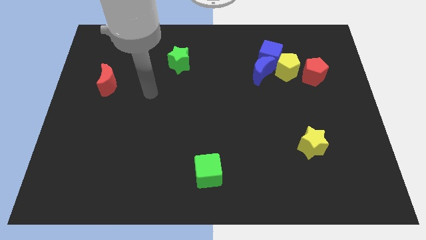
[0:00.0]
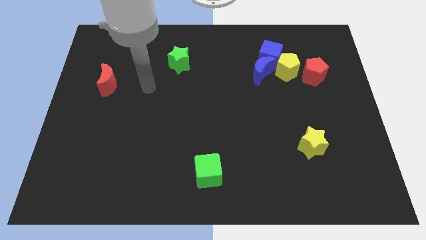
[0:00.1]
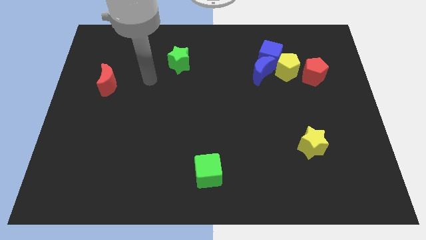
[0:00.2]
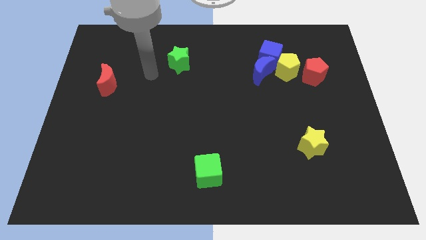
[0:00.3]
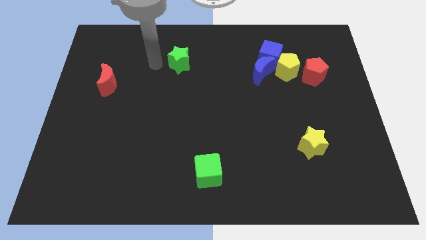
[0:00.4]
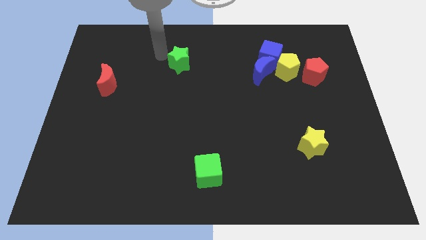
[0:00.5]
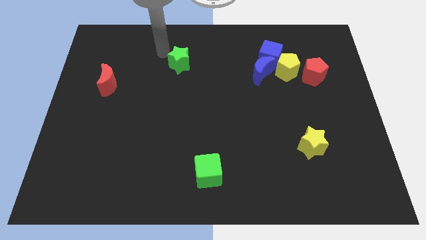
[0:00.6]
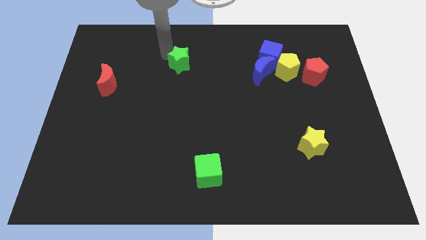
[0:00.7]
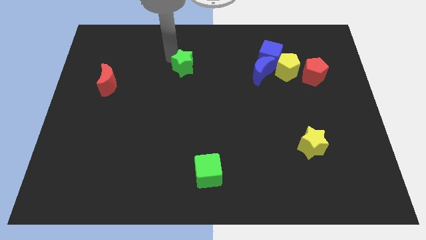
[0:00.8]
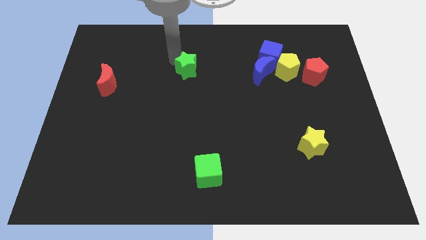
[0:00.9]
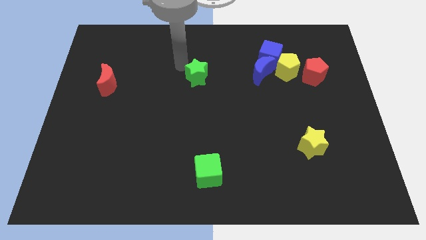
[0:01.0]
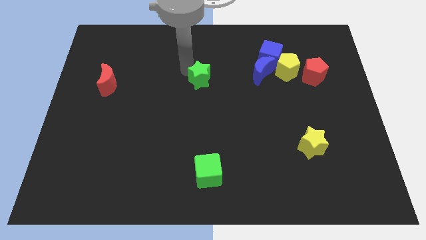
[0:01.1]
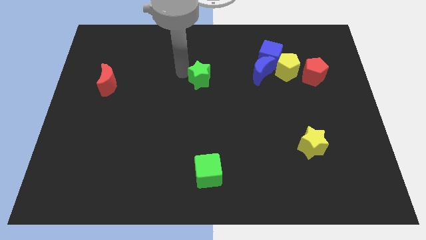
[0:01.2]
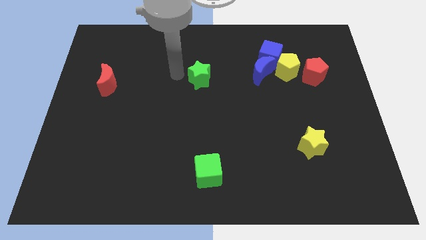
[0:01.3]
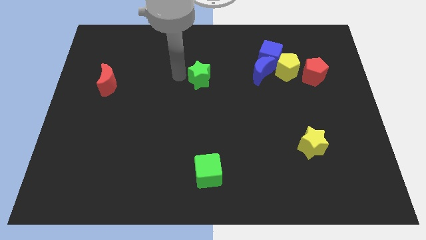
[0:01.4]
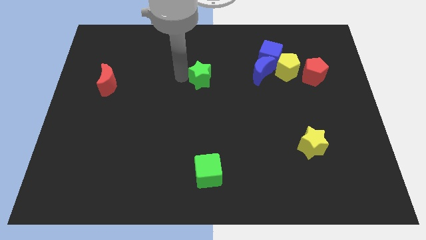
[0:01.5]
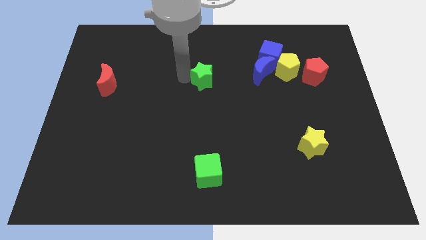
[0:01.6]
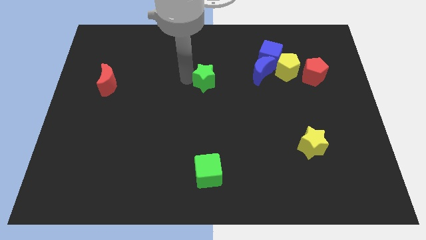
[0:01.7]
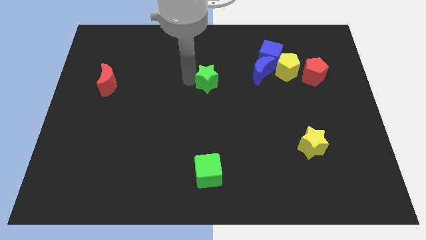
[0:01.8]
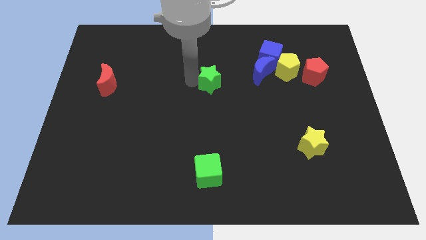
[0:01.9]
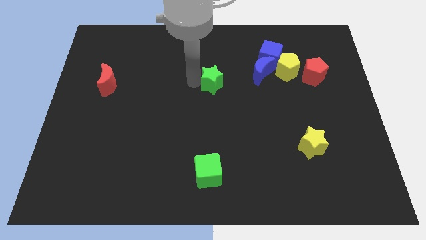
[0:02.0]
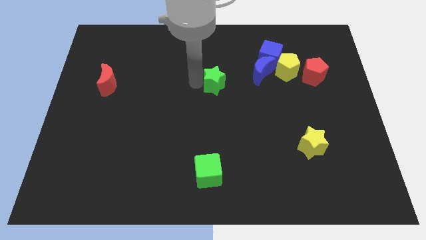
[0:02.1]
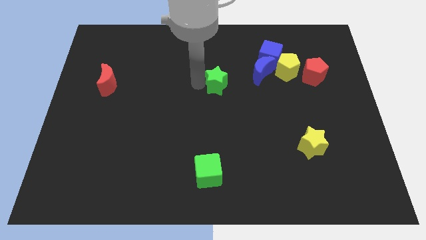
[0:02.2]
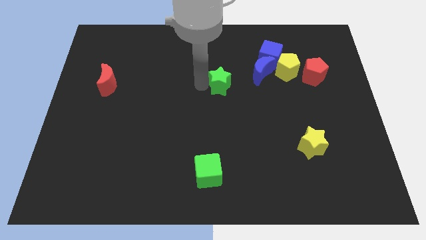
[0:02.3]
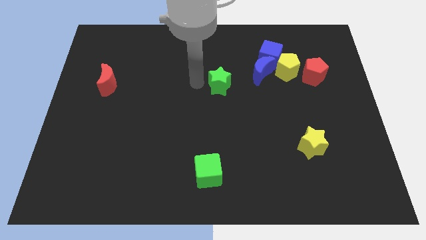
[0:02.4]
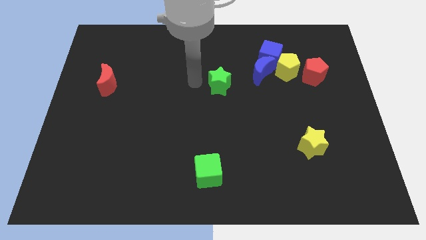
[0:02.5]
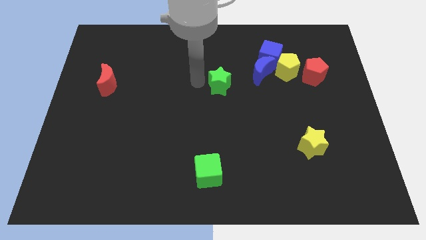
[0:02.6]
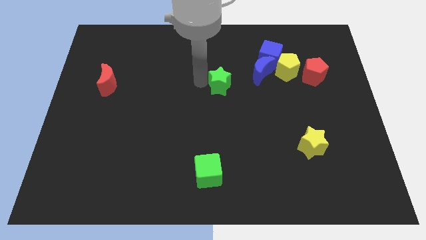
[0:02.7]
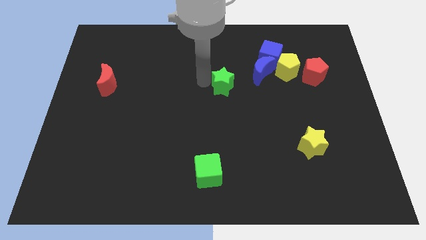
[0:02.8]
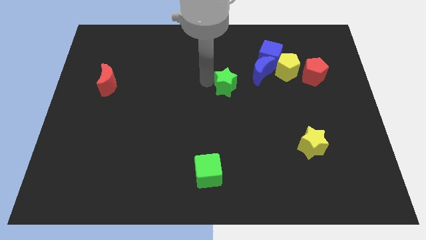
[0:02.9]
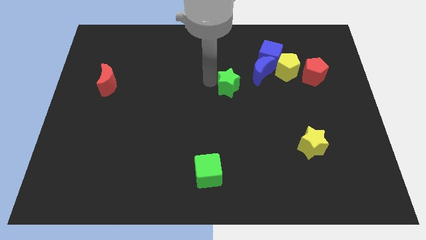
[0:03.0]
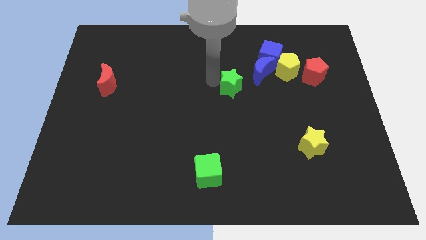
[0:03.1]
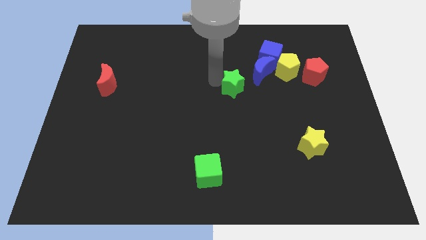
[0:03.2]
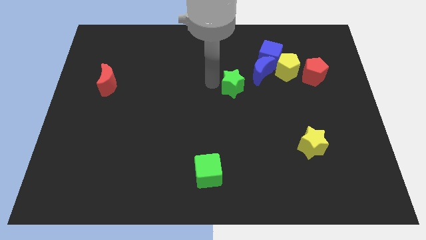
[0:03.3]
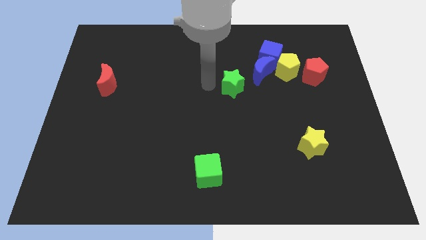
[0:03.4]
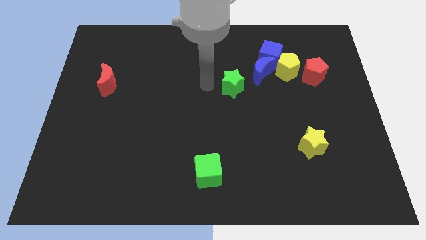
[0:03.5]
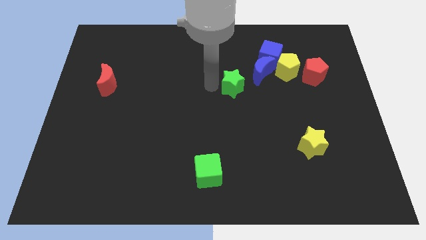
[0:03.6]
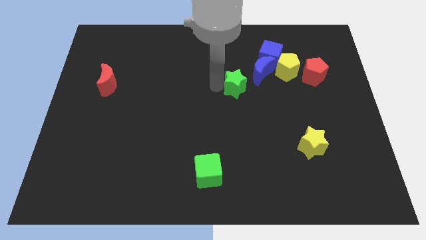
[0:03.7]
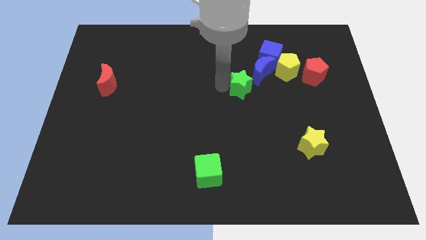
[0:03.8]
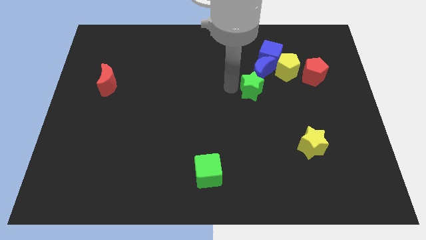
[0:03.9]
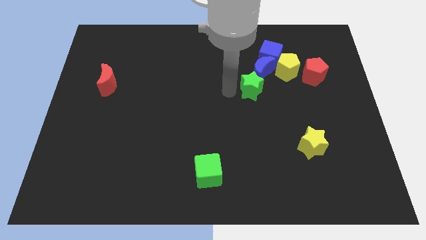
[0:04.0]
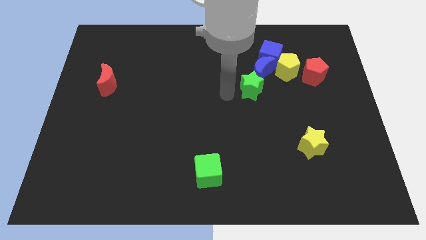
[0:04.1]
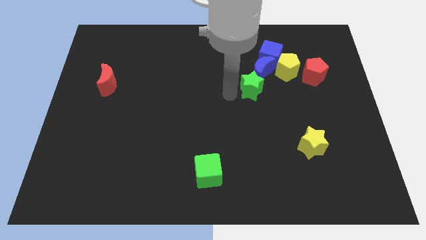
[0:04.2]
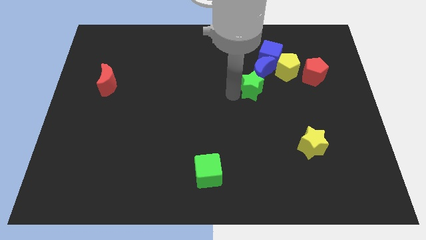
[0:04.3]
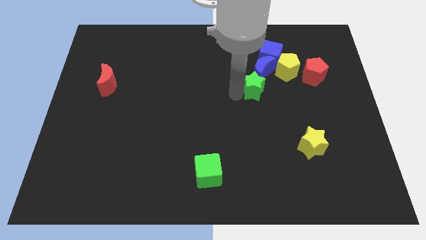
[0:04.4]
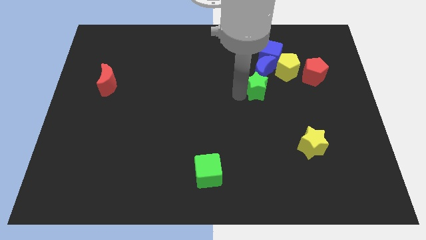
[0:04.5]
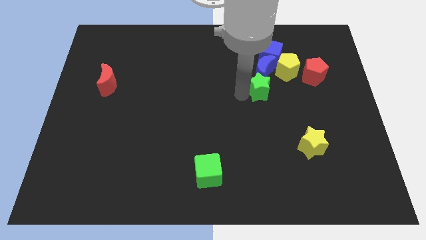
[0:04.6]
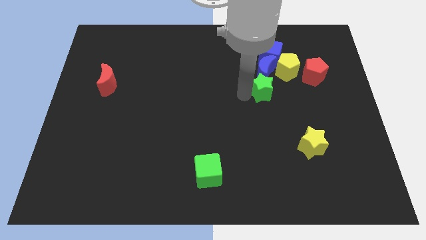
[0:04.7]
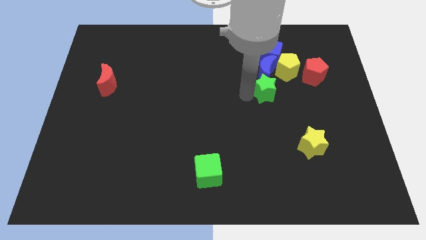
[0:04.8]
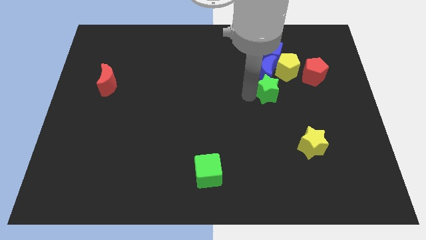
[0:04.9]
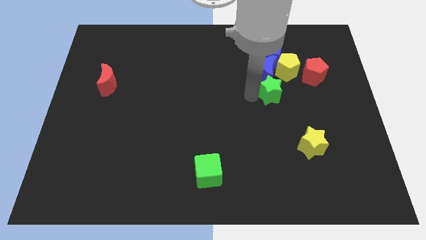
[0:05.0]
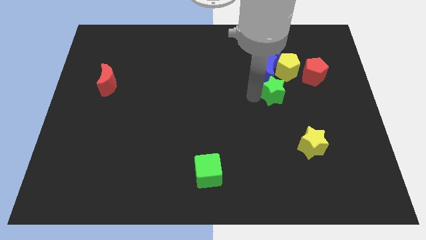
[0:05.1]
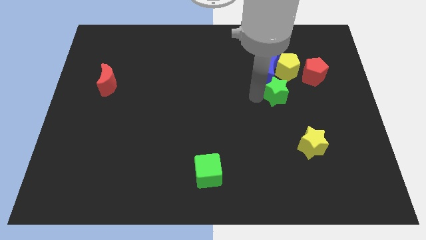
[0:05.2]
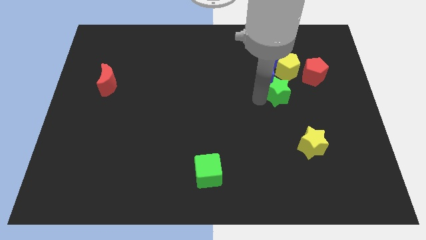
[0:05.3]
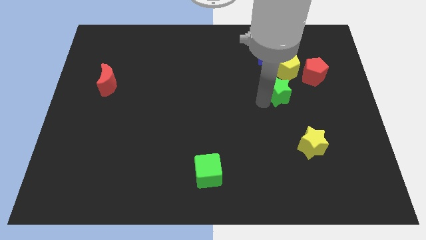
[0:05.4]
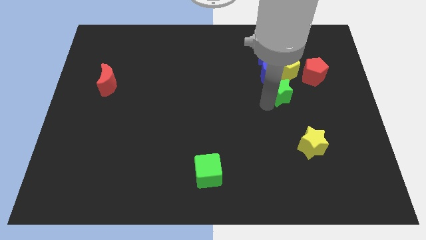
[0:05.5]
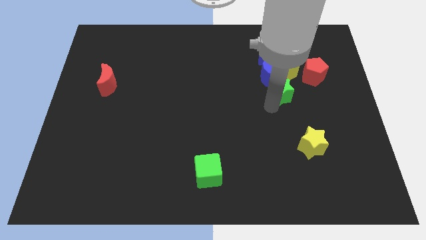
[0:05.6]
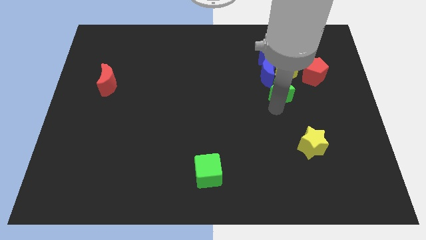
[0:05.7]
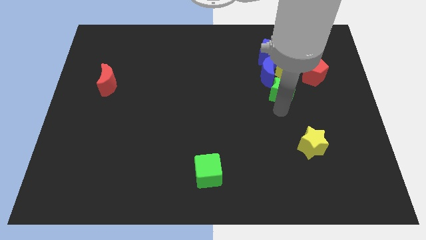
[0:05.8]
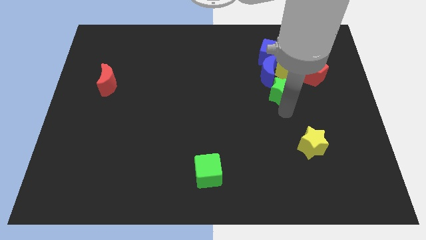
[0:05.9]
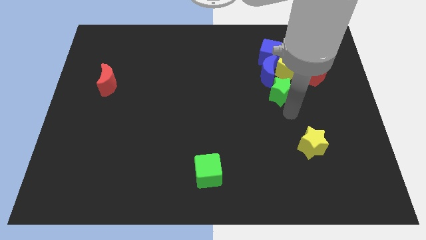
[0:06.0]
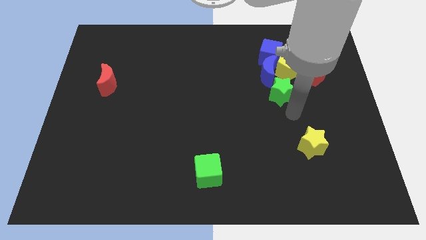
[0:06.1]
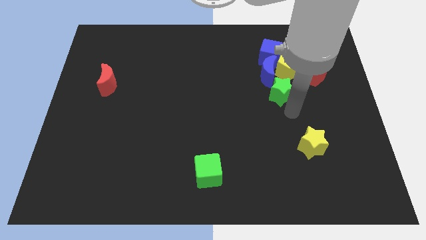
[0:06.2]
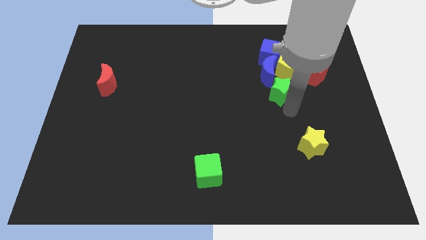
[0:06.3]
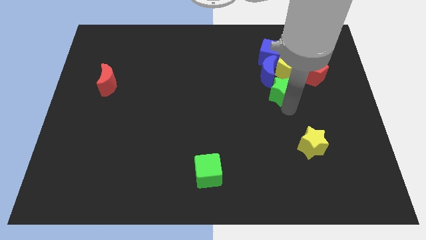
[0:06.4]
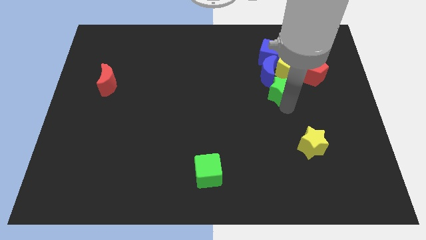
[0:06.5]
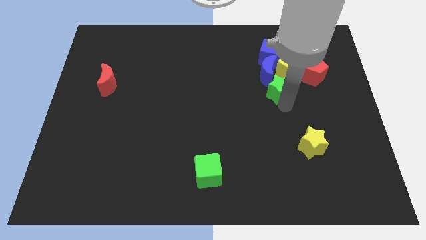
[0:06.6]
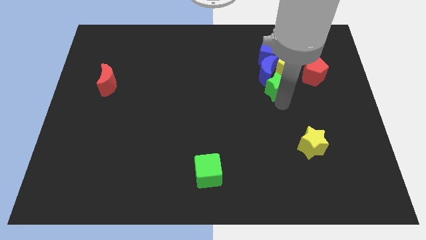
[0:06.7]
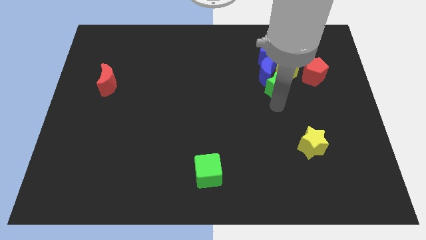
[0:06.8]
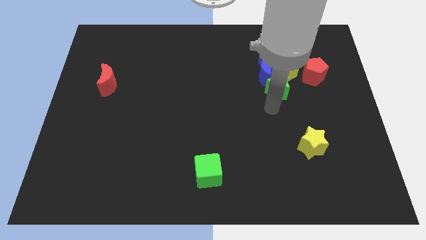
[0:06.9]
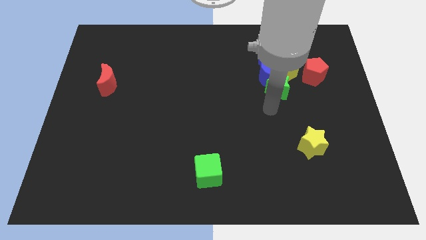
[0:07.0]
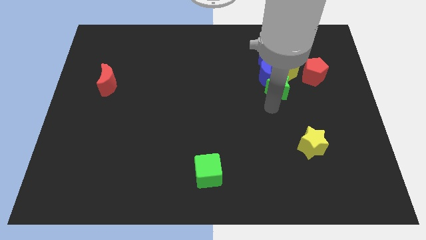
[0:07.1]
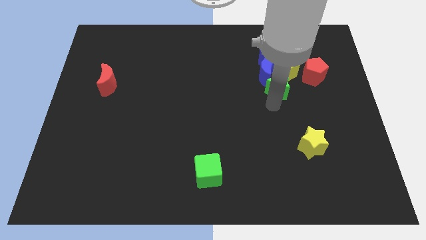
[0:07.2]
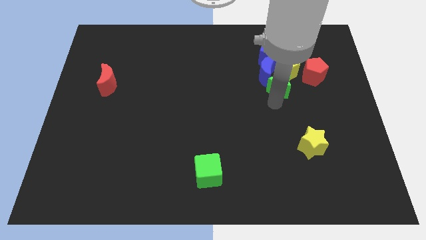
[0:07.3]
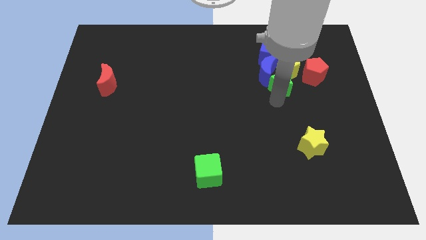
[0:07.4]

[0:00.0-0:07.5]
slide the green star towards the yellow pentagon

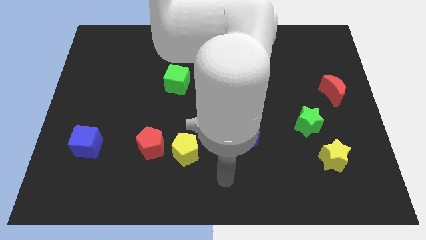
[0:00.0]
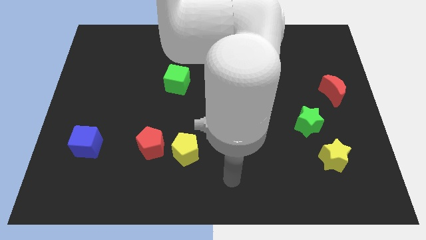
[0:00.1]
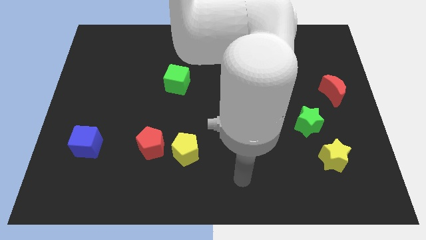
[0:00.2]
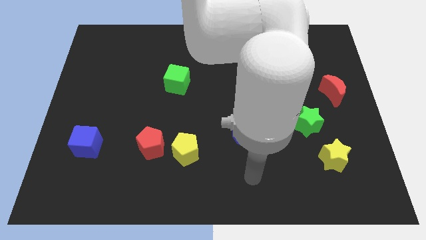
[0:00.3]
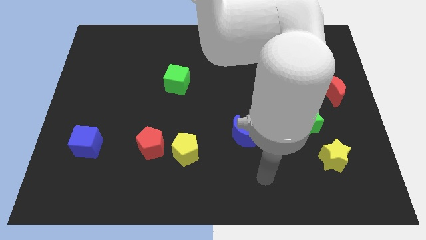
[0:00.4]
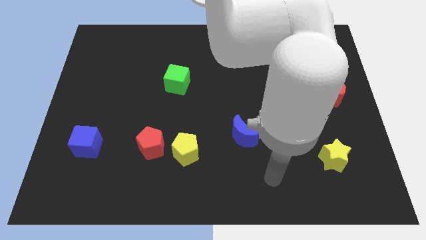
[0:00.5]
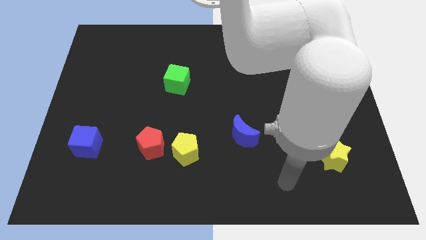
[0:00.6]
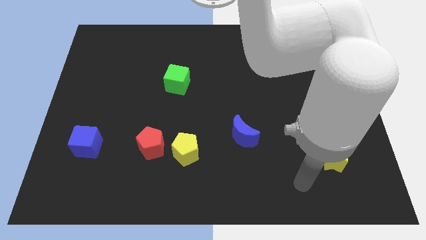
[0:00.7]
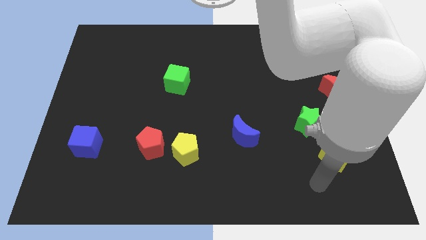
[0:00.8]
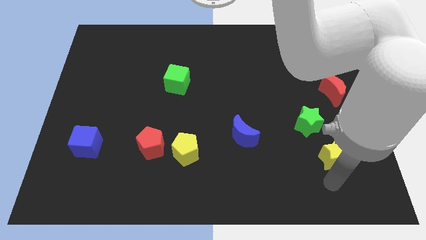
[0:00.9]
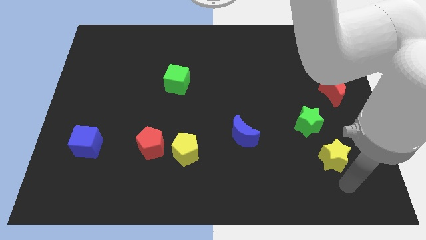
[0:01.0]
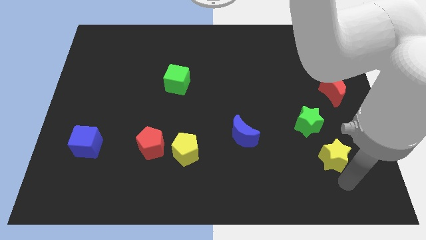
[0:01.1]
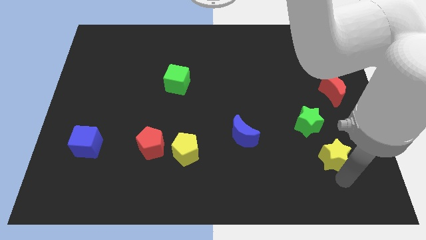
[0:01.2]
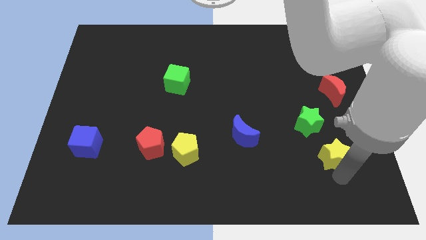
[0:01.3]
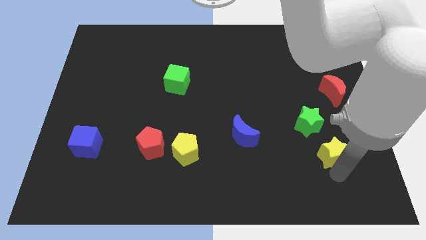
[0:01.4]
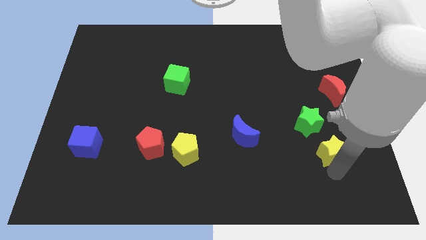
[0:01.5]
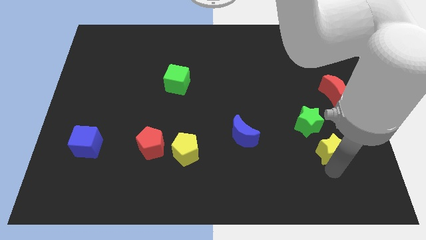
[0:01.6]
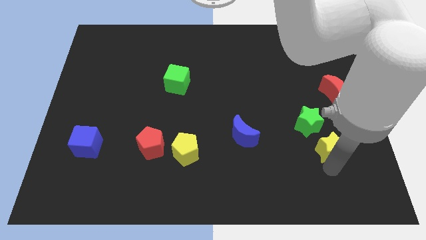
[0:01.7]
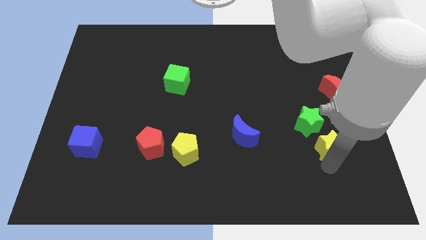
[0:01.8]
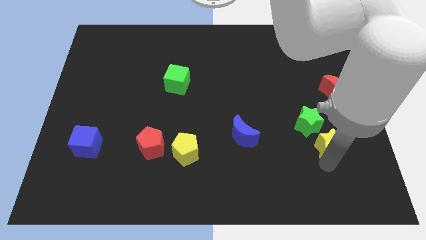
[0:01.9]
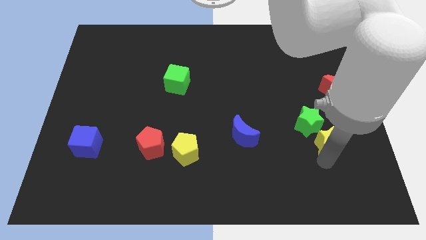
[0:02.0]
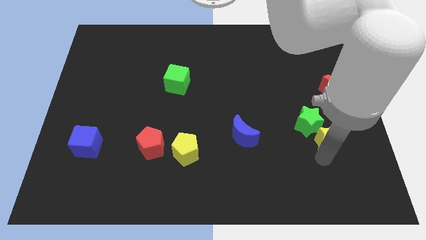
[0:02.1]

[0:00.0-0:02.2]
move the yellow star next to the green star
